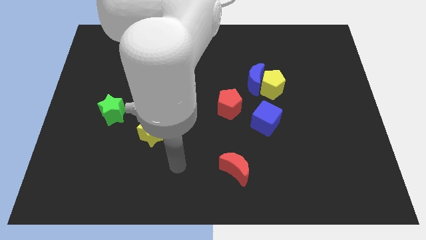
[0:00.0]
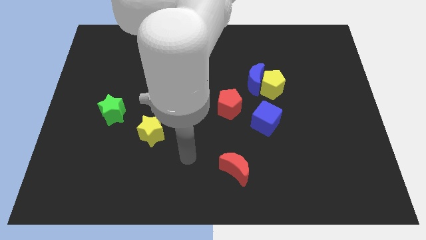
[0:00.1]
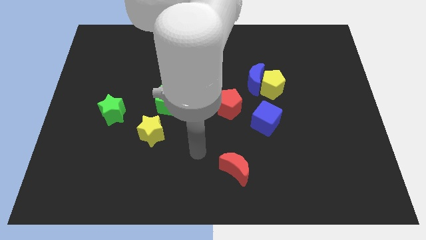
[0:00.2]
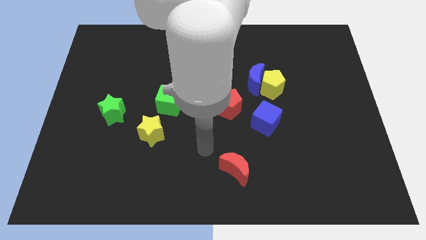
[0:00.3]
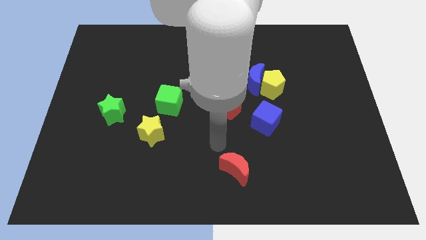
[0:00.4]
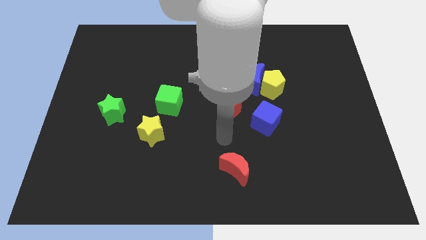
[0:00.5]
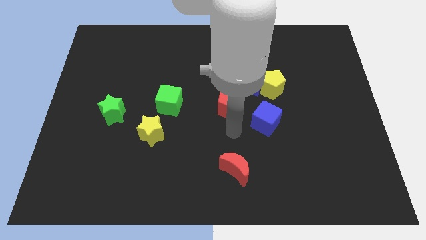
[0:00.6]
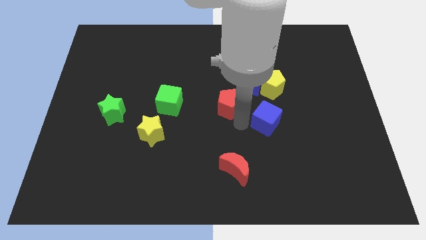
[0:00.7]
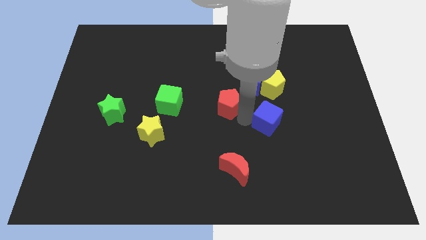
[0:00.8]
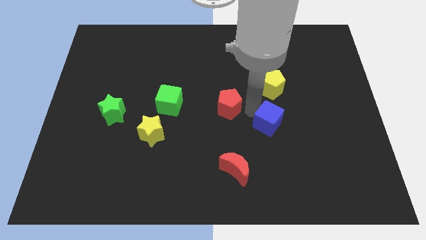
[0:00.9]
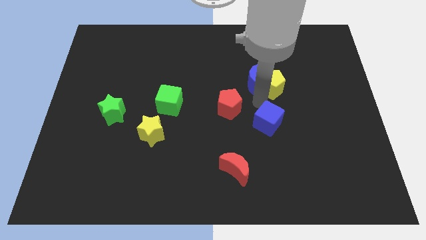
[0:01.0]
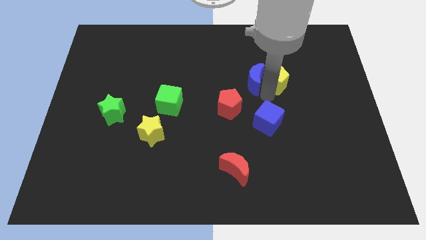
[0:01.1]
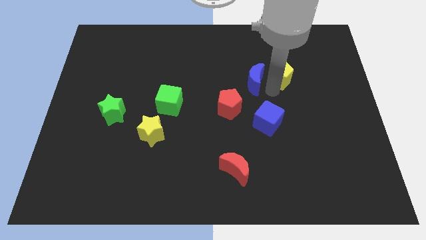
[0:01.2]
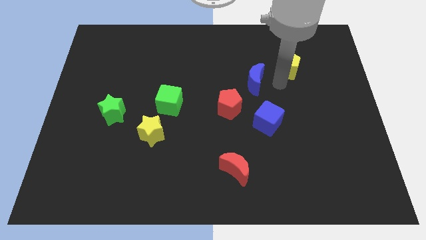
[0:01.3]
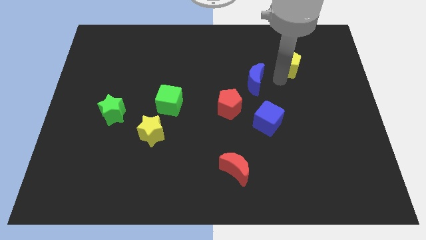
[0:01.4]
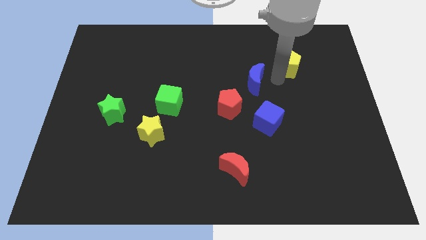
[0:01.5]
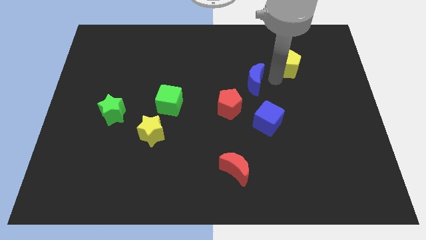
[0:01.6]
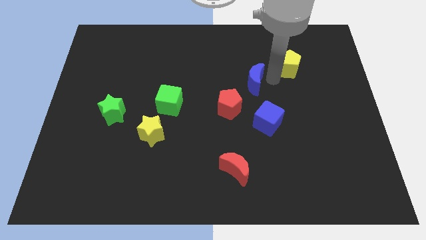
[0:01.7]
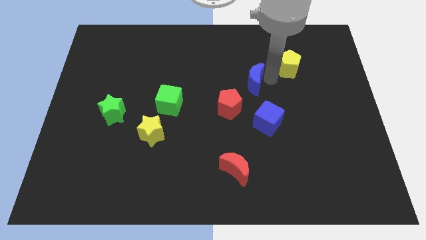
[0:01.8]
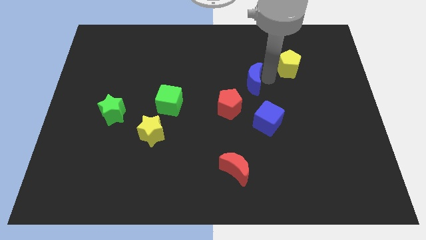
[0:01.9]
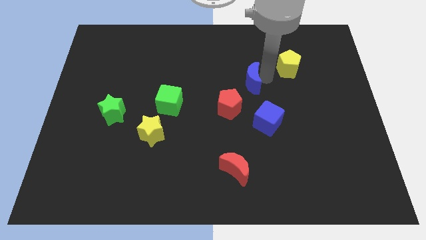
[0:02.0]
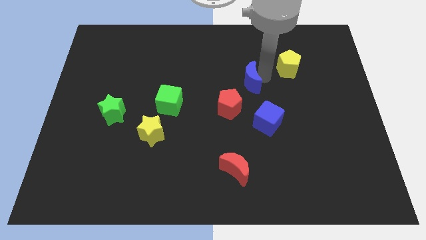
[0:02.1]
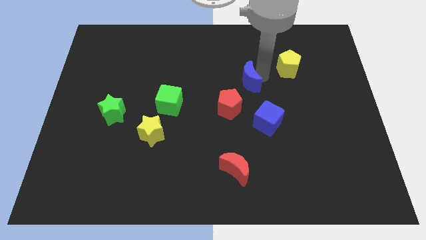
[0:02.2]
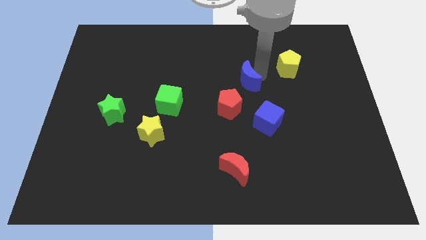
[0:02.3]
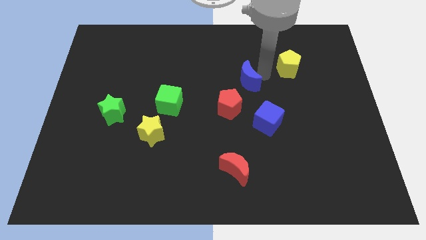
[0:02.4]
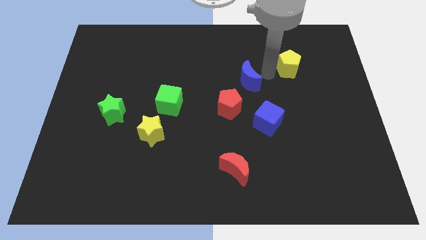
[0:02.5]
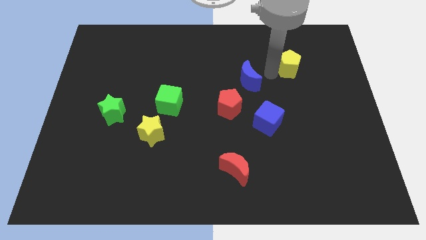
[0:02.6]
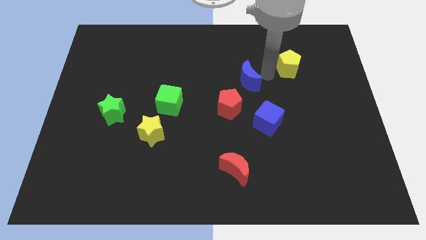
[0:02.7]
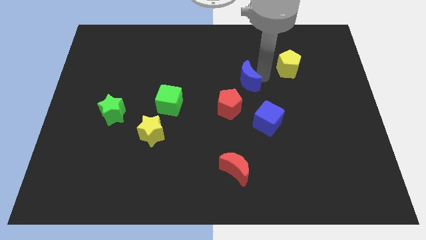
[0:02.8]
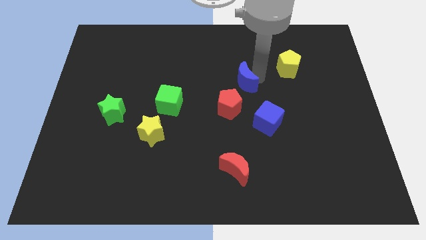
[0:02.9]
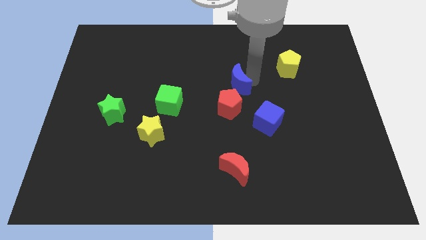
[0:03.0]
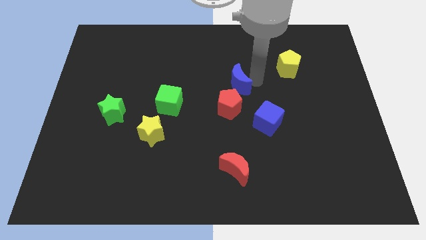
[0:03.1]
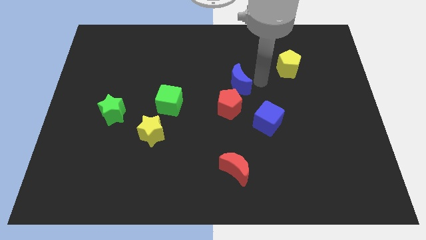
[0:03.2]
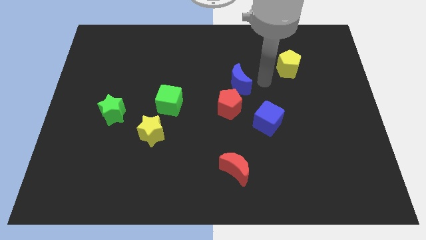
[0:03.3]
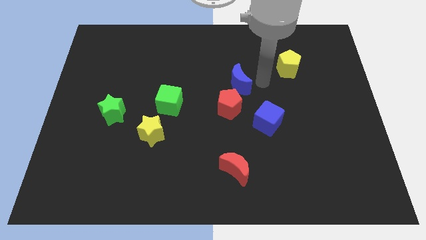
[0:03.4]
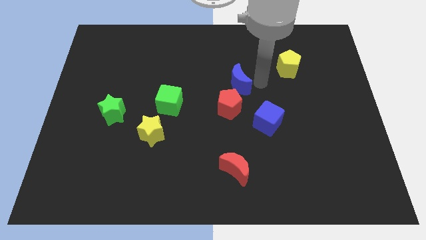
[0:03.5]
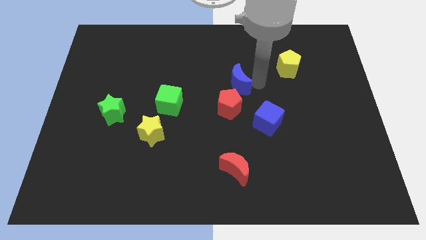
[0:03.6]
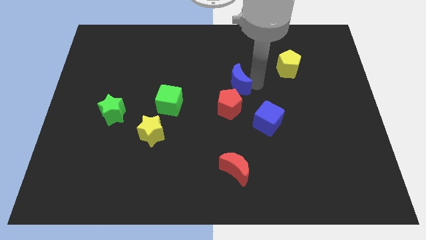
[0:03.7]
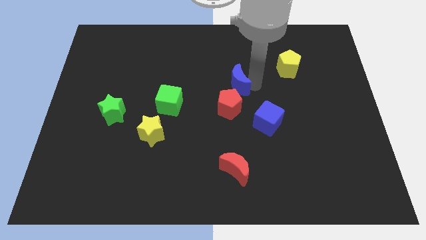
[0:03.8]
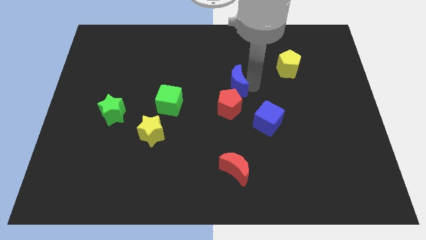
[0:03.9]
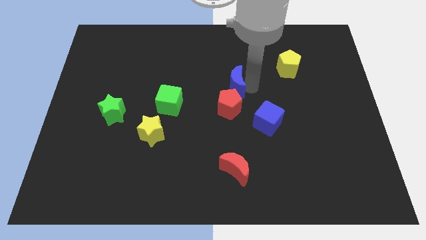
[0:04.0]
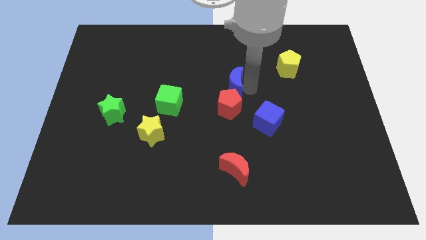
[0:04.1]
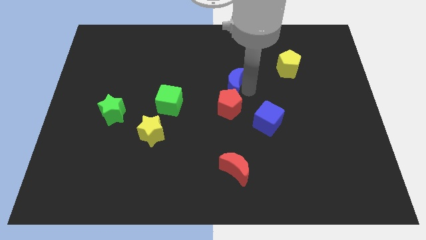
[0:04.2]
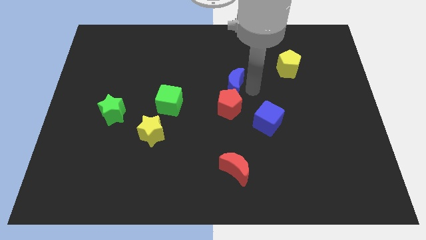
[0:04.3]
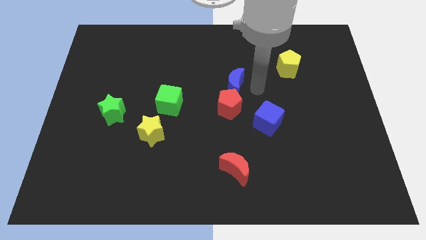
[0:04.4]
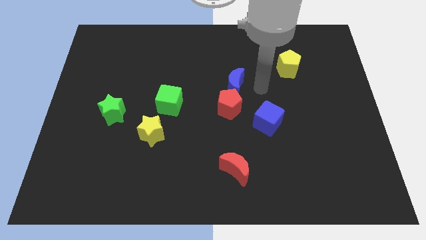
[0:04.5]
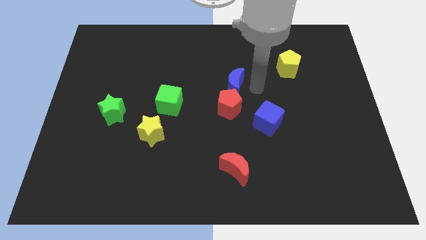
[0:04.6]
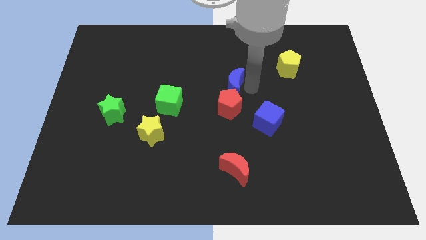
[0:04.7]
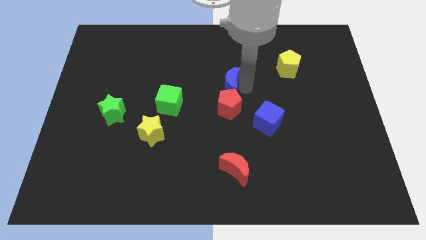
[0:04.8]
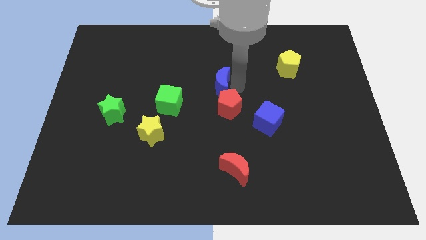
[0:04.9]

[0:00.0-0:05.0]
push the blue moon to the left a little

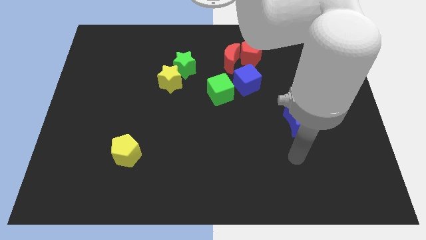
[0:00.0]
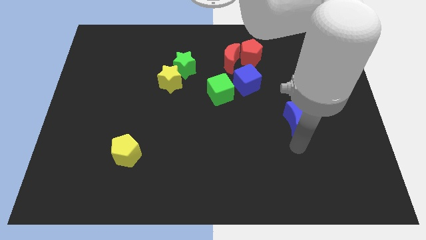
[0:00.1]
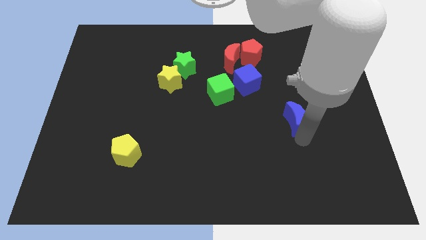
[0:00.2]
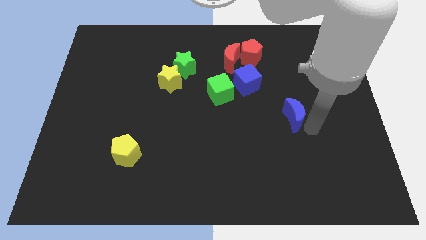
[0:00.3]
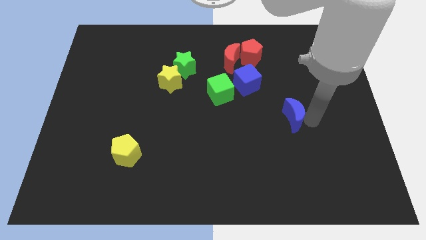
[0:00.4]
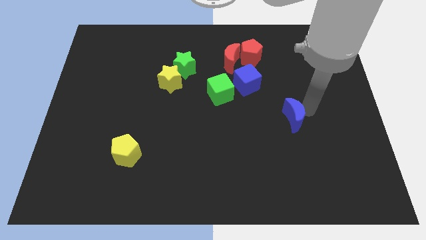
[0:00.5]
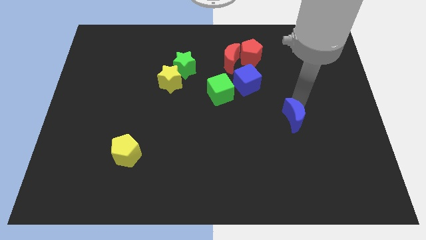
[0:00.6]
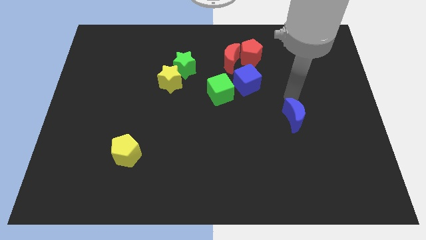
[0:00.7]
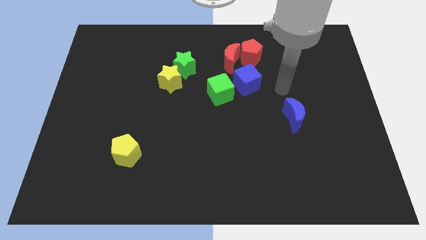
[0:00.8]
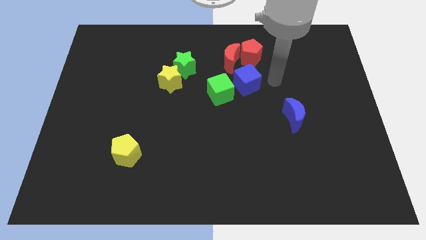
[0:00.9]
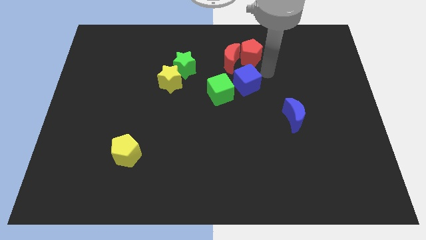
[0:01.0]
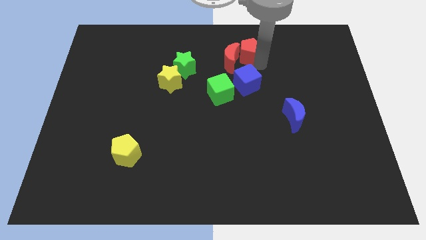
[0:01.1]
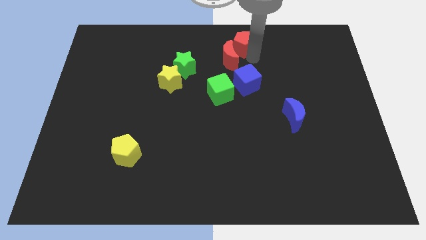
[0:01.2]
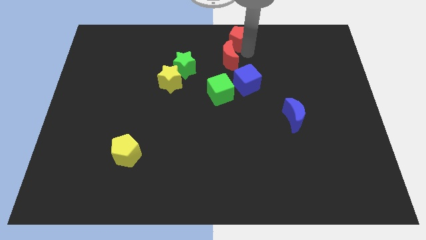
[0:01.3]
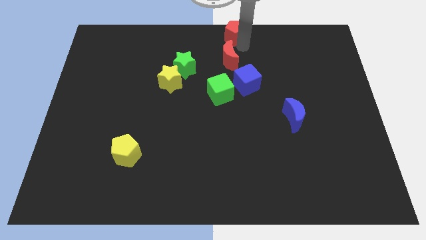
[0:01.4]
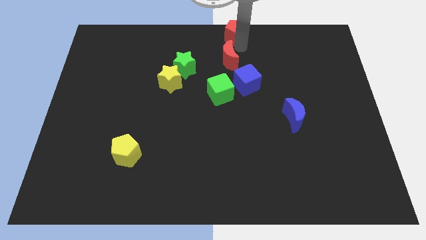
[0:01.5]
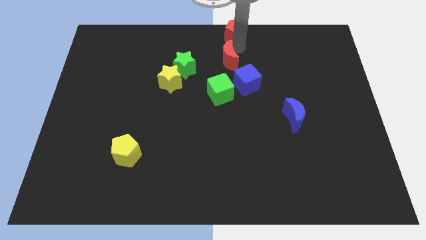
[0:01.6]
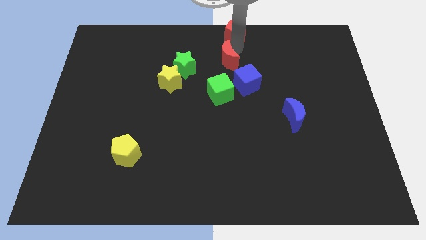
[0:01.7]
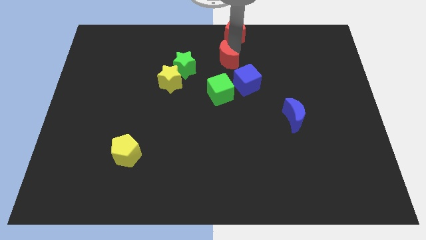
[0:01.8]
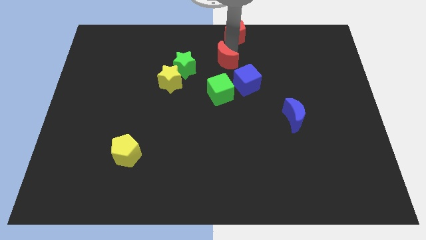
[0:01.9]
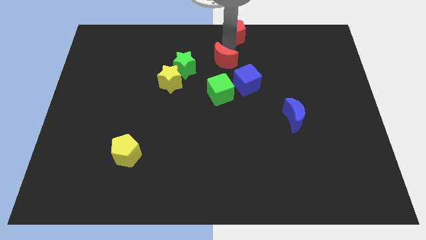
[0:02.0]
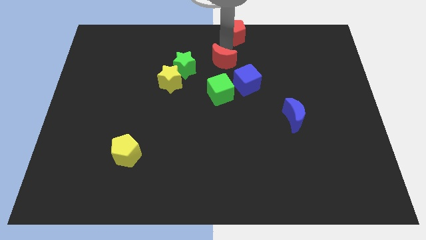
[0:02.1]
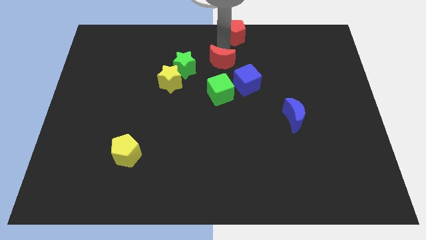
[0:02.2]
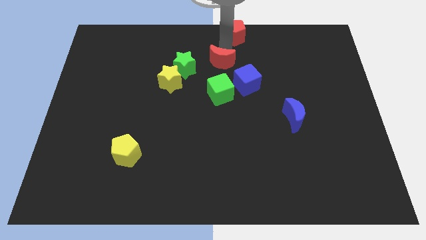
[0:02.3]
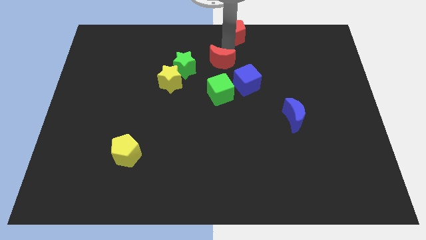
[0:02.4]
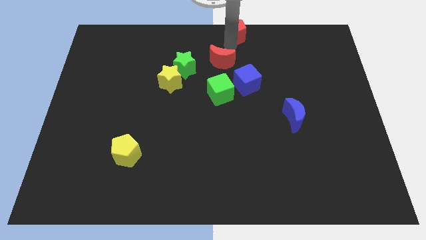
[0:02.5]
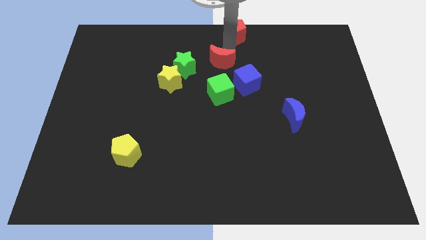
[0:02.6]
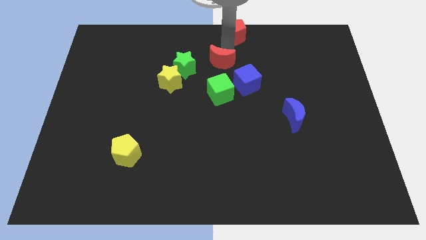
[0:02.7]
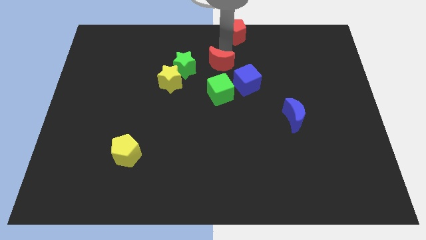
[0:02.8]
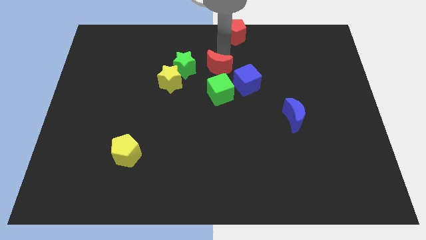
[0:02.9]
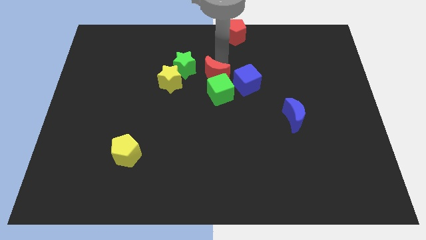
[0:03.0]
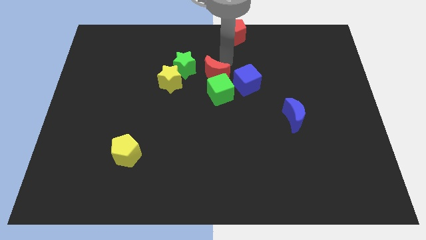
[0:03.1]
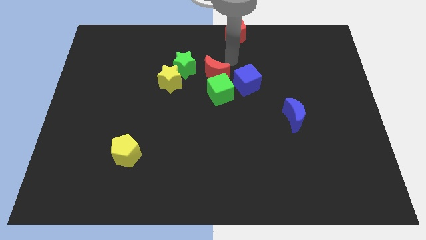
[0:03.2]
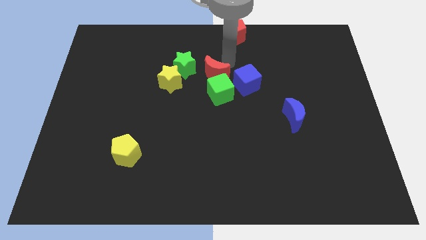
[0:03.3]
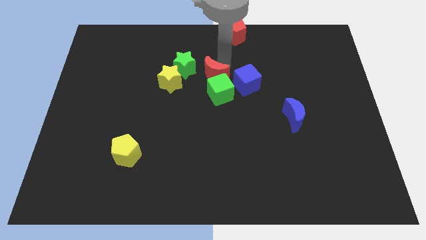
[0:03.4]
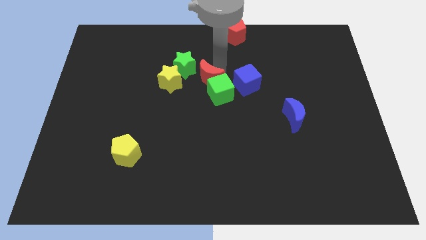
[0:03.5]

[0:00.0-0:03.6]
slightly move the red moon diagonally down and left
